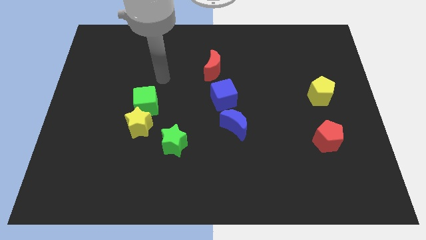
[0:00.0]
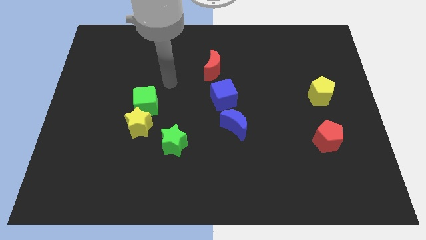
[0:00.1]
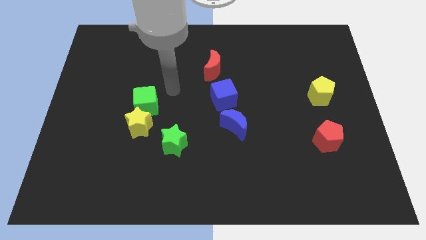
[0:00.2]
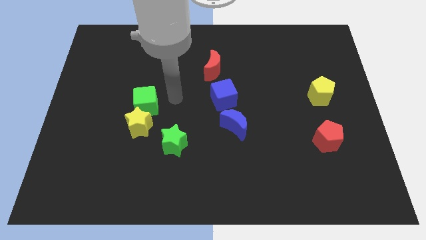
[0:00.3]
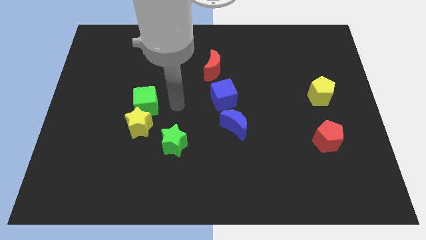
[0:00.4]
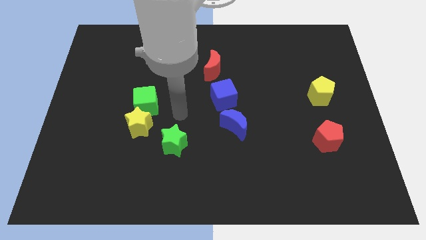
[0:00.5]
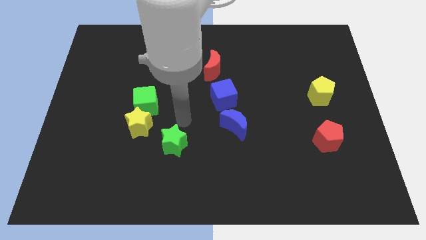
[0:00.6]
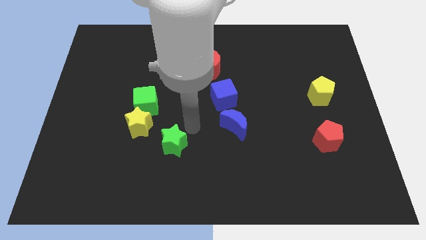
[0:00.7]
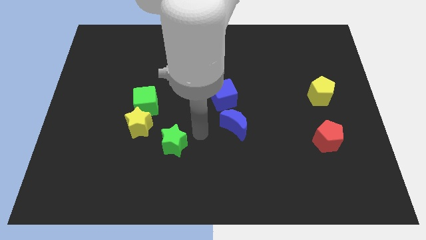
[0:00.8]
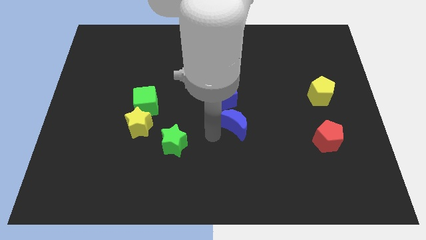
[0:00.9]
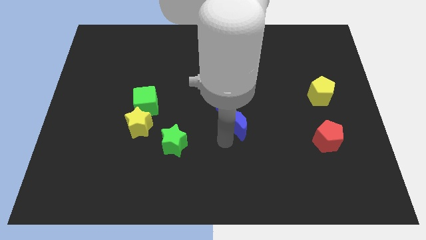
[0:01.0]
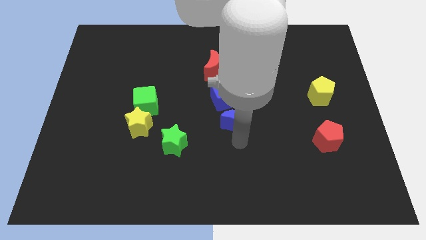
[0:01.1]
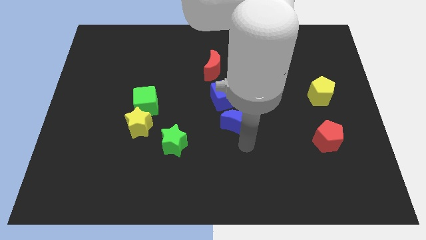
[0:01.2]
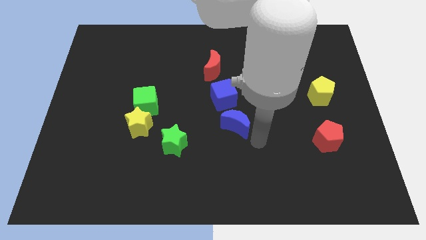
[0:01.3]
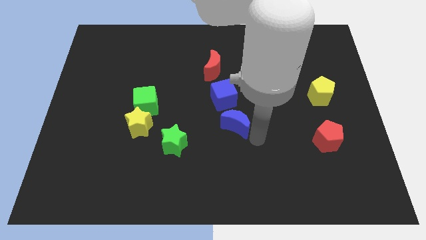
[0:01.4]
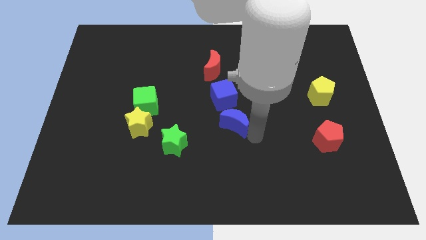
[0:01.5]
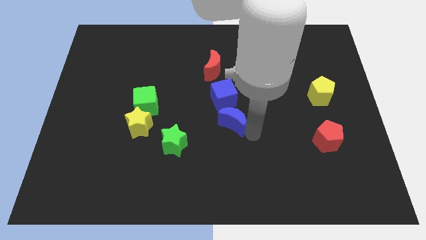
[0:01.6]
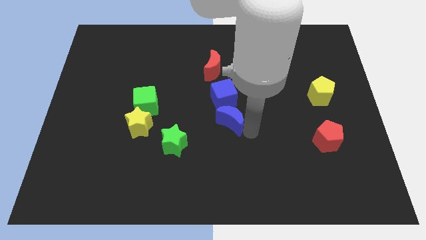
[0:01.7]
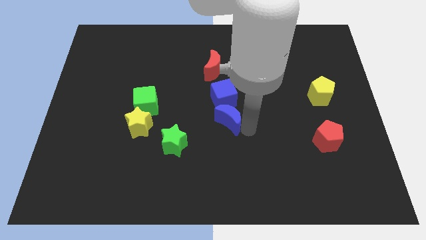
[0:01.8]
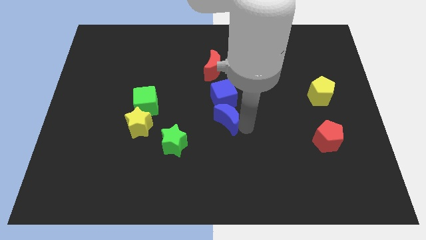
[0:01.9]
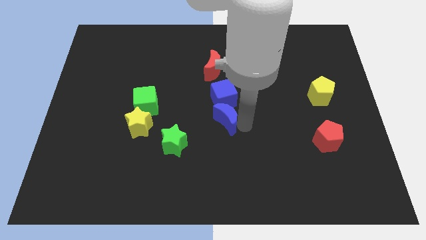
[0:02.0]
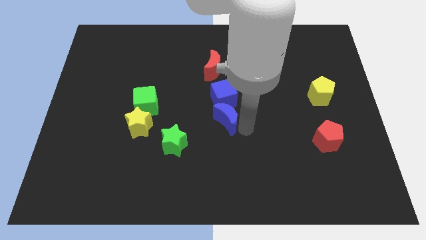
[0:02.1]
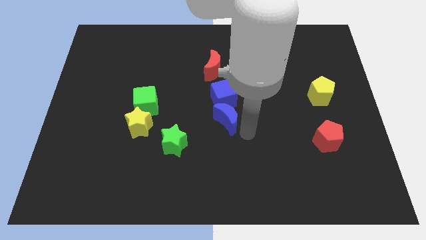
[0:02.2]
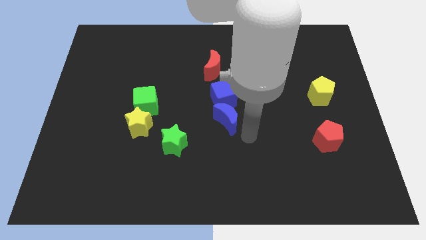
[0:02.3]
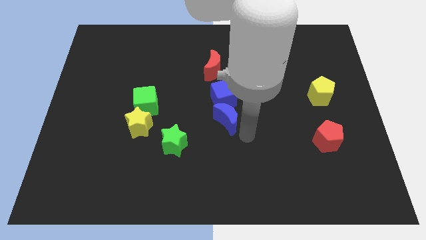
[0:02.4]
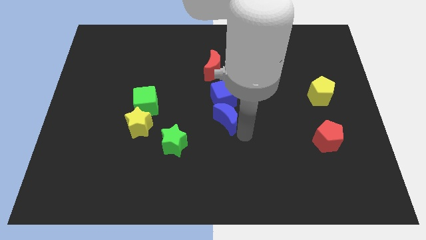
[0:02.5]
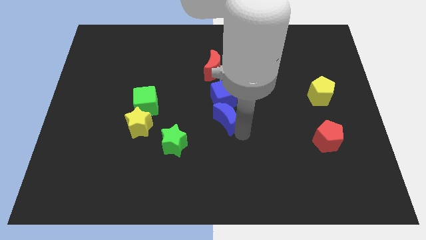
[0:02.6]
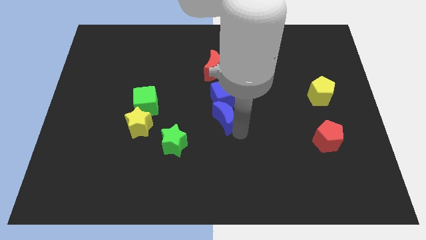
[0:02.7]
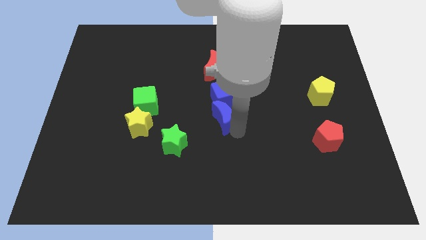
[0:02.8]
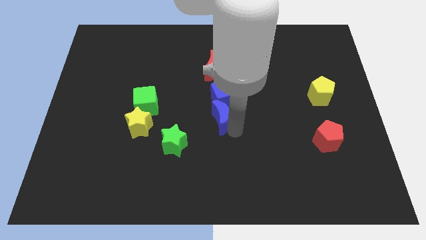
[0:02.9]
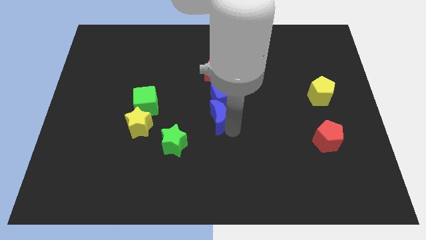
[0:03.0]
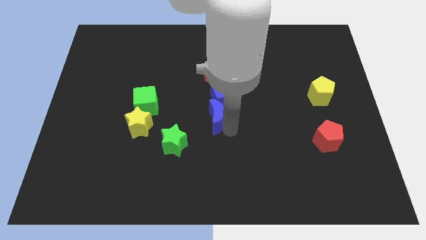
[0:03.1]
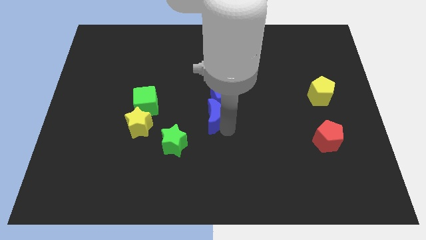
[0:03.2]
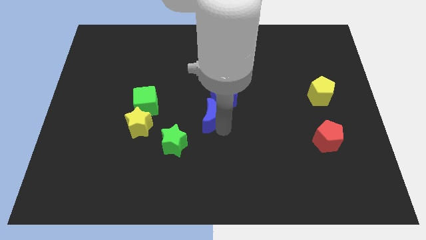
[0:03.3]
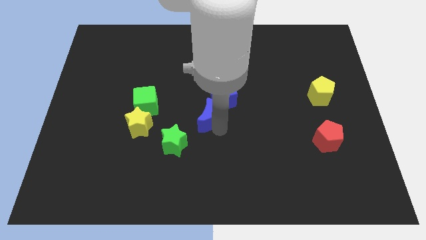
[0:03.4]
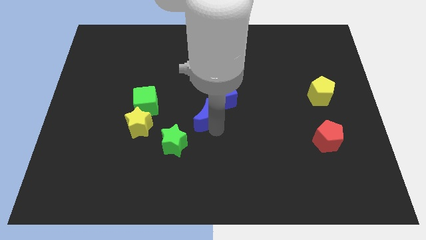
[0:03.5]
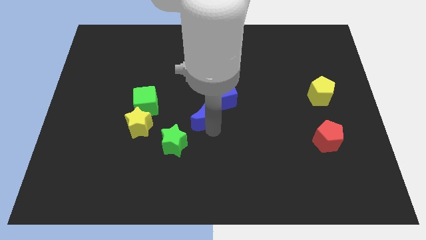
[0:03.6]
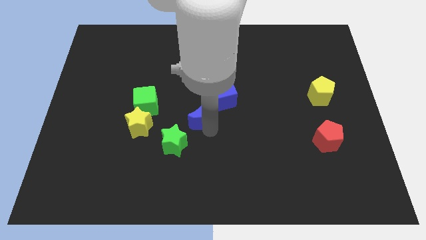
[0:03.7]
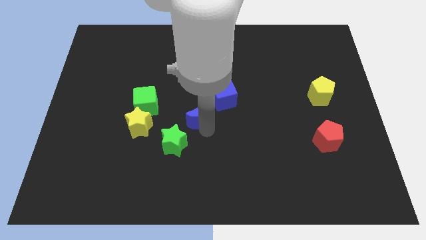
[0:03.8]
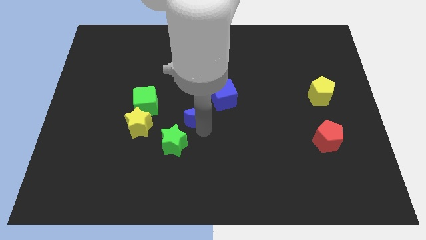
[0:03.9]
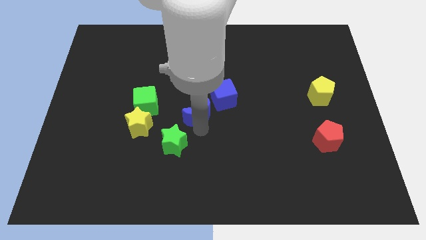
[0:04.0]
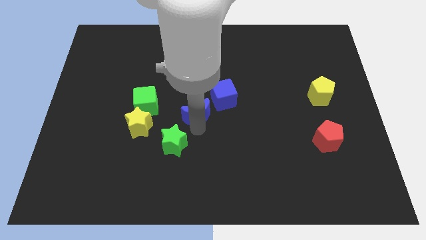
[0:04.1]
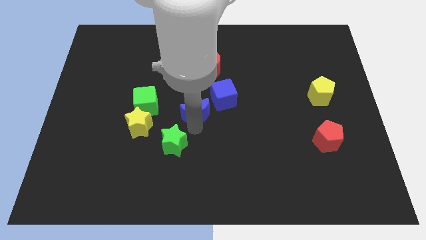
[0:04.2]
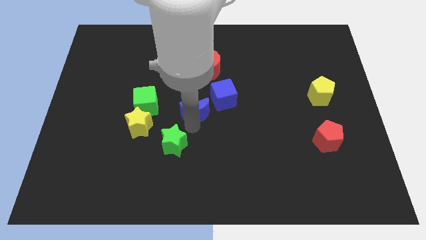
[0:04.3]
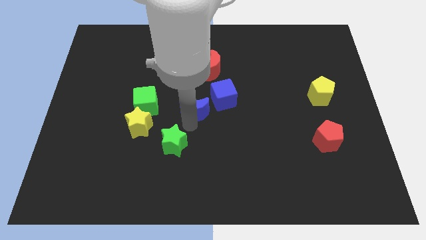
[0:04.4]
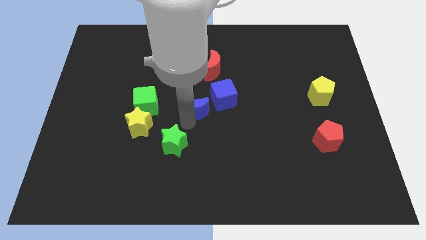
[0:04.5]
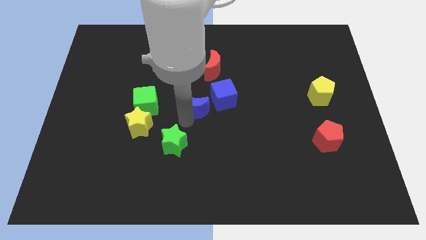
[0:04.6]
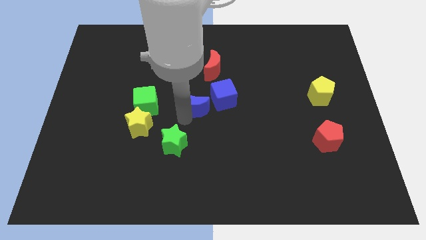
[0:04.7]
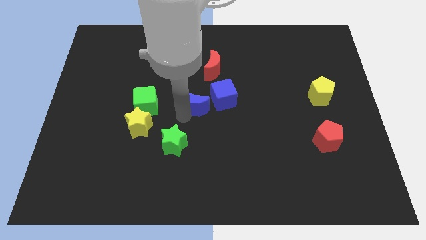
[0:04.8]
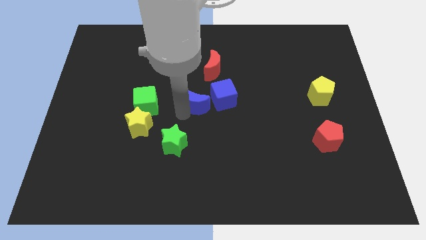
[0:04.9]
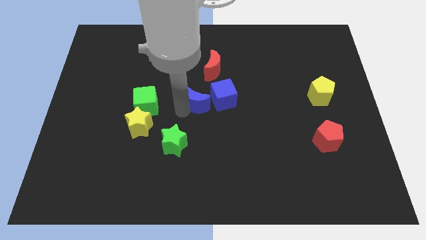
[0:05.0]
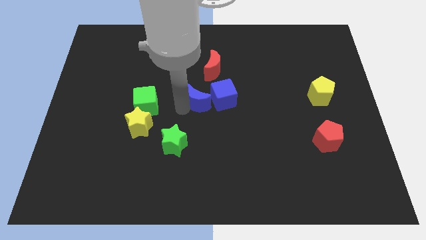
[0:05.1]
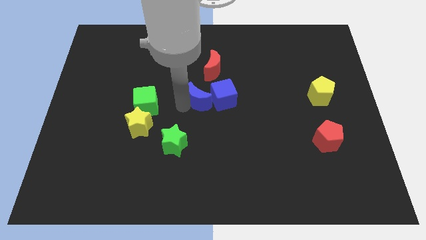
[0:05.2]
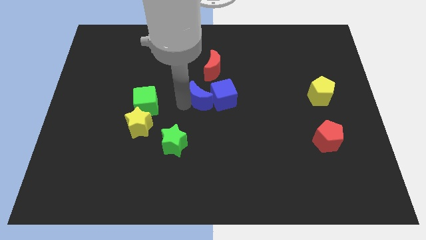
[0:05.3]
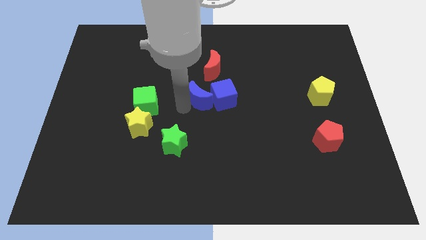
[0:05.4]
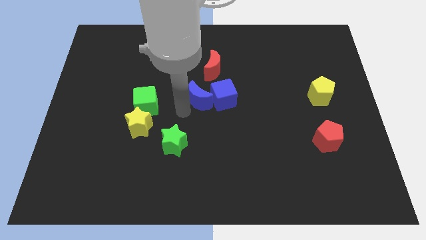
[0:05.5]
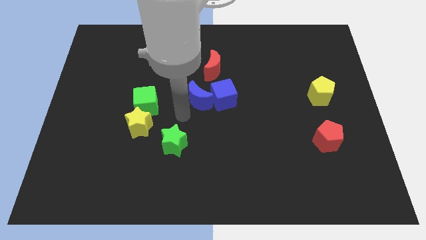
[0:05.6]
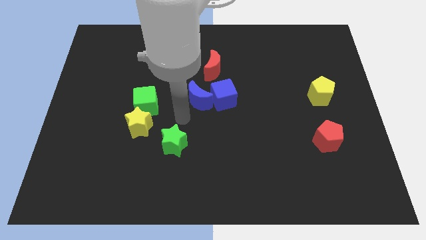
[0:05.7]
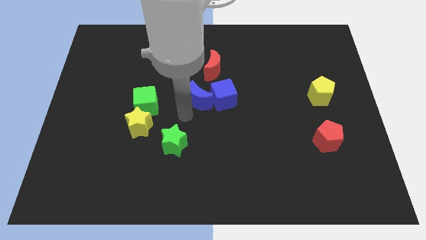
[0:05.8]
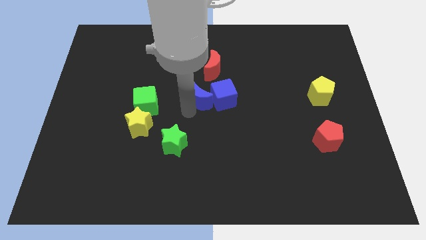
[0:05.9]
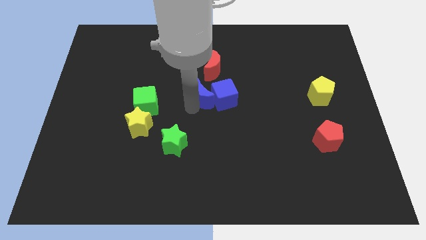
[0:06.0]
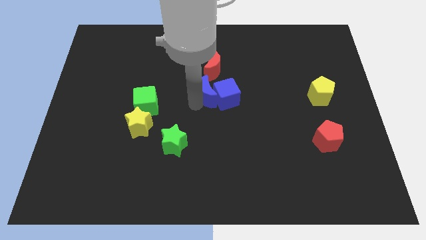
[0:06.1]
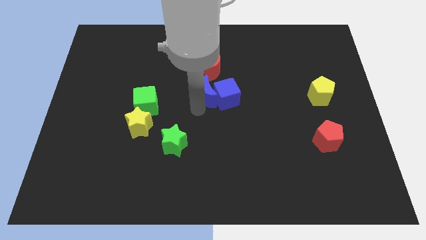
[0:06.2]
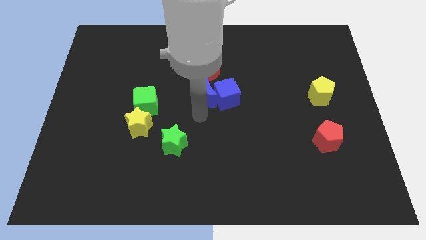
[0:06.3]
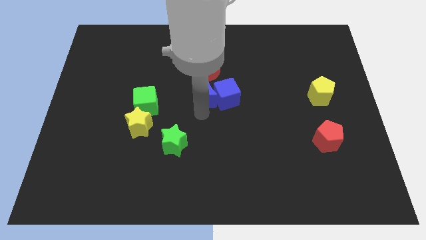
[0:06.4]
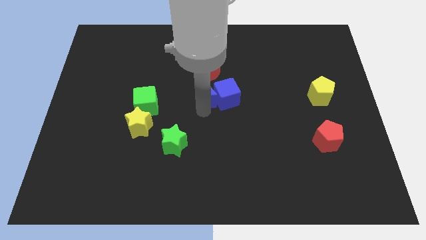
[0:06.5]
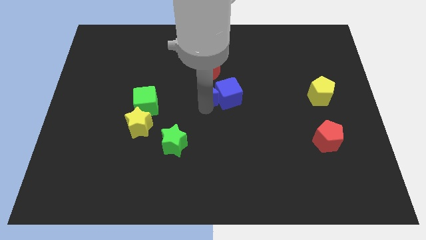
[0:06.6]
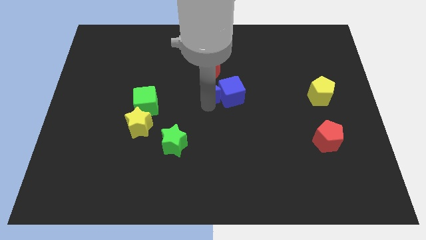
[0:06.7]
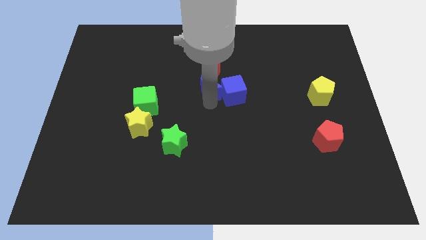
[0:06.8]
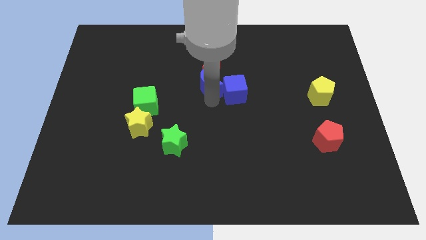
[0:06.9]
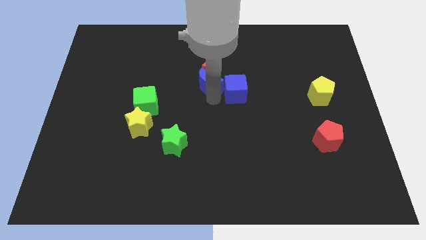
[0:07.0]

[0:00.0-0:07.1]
push the blue moon to the red moon
